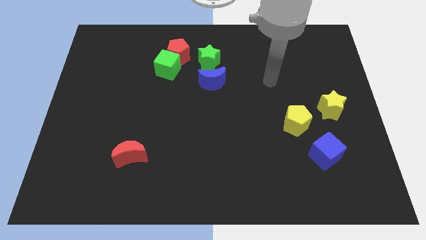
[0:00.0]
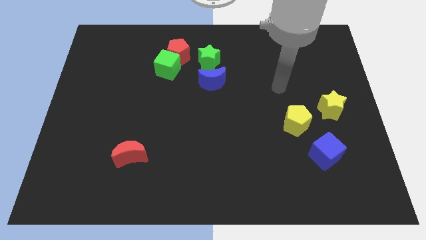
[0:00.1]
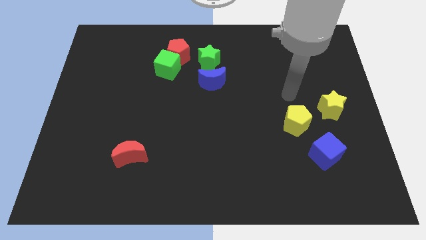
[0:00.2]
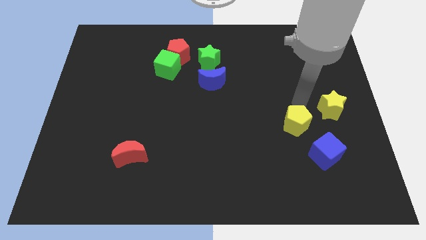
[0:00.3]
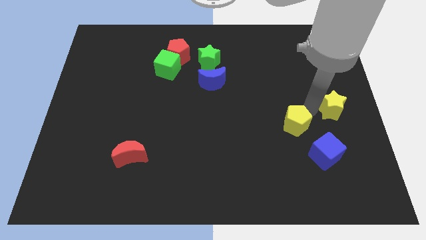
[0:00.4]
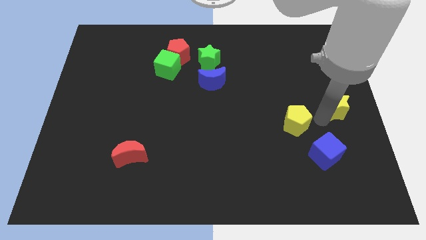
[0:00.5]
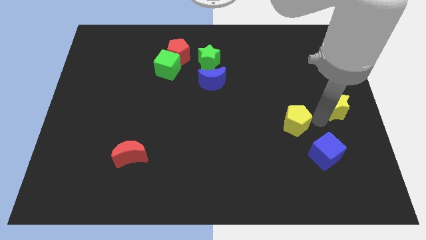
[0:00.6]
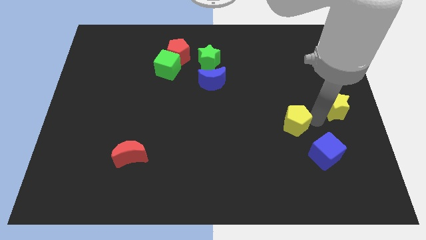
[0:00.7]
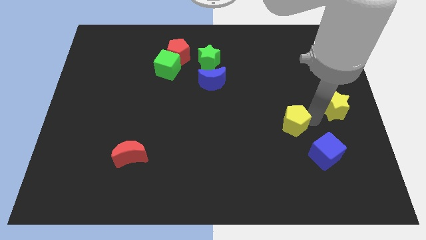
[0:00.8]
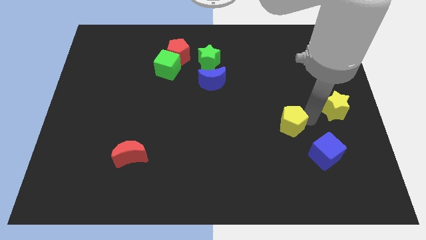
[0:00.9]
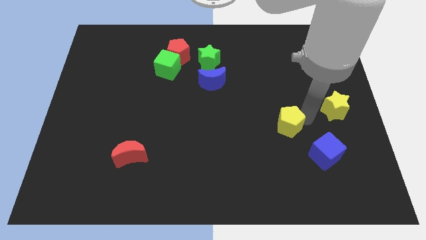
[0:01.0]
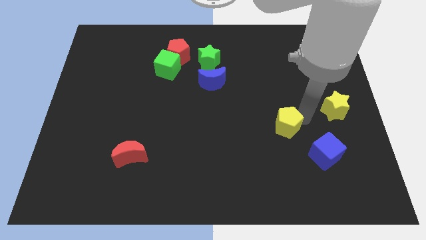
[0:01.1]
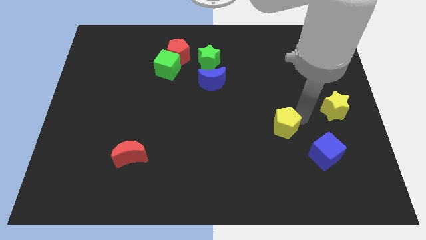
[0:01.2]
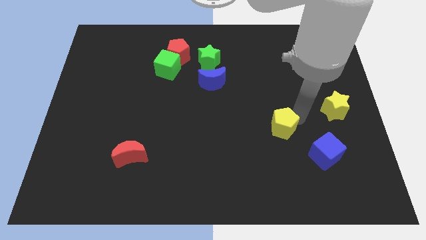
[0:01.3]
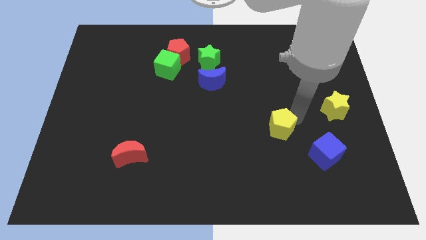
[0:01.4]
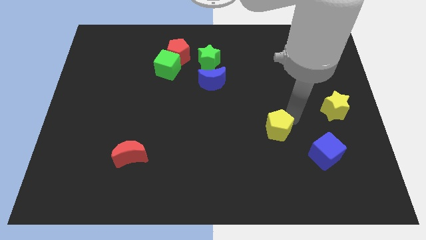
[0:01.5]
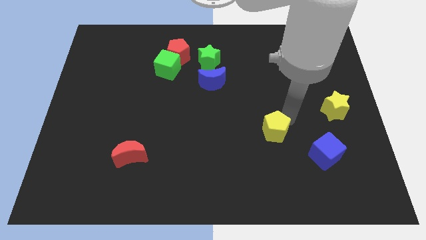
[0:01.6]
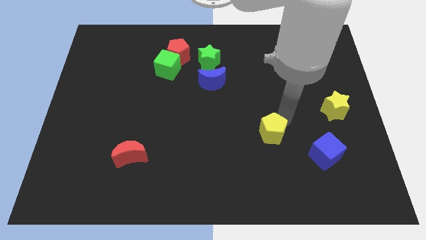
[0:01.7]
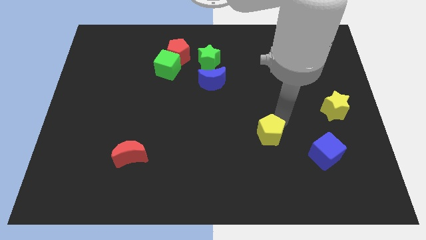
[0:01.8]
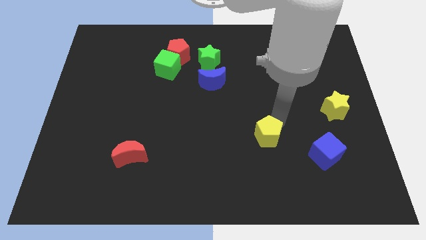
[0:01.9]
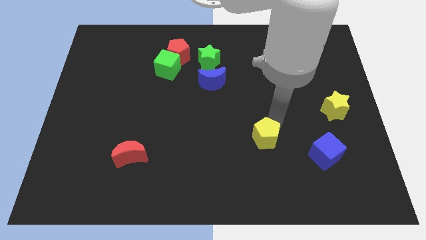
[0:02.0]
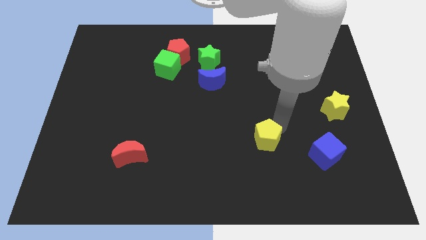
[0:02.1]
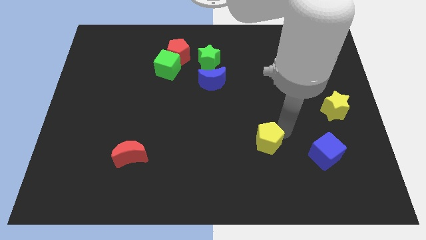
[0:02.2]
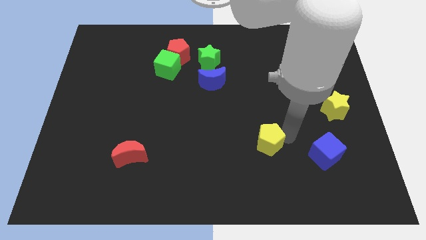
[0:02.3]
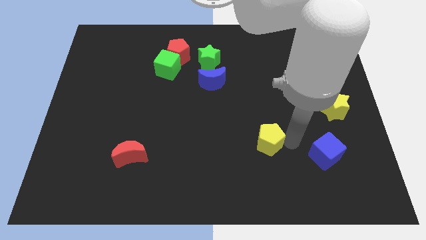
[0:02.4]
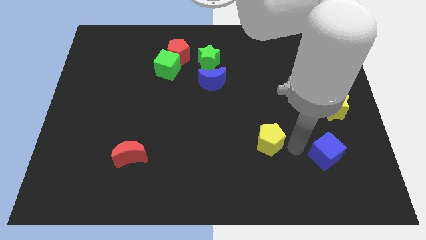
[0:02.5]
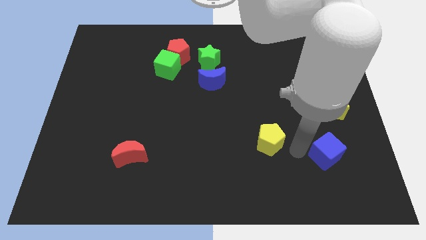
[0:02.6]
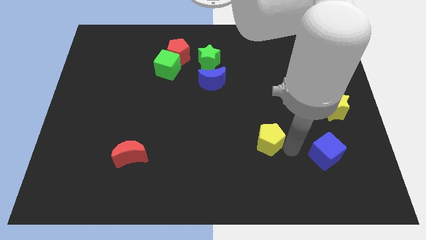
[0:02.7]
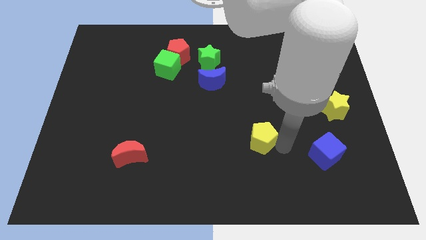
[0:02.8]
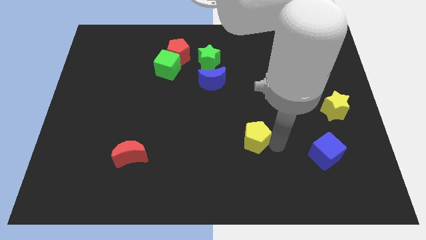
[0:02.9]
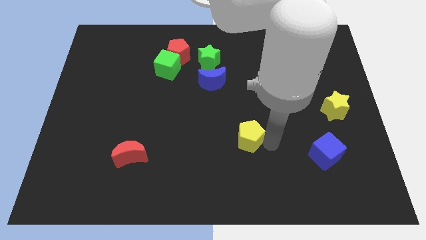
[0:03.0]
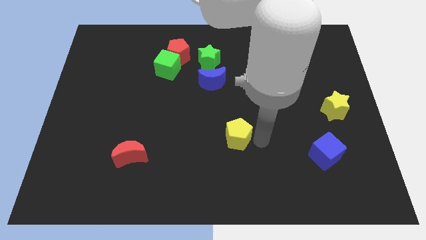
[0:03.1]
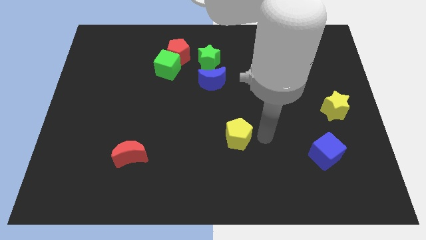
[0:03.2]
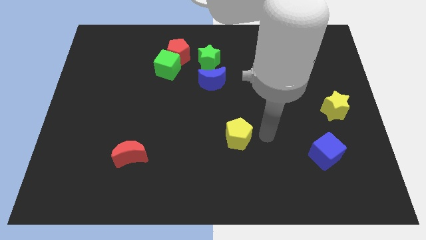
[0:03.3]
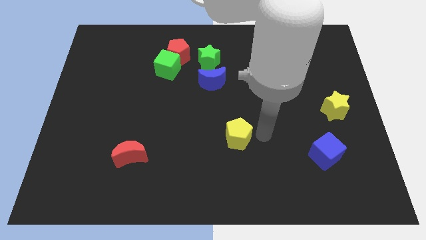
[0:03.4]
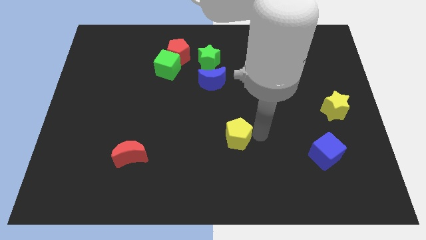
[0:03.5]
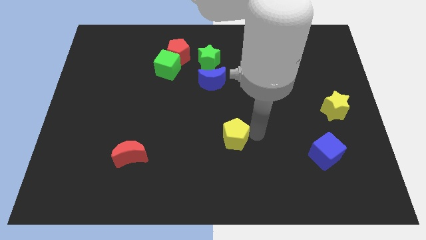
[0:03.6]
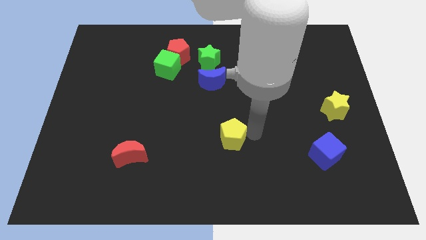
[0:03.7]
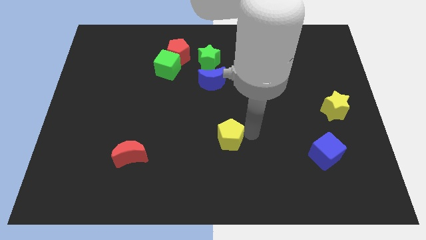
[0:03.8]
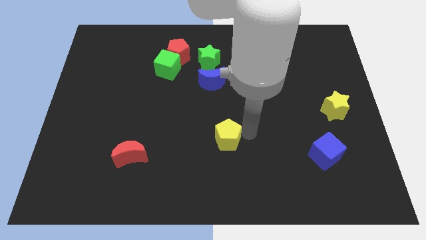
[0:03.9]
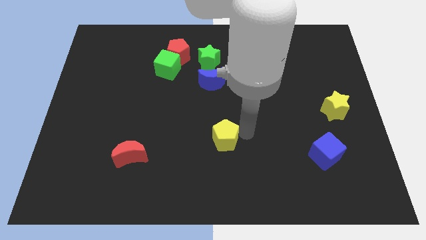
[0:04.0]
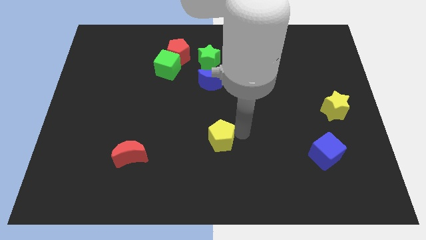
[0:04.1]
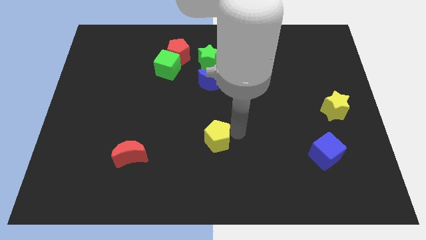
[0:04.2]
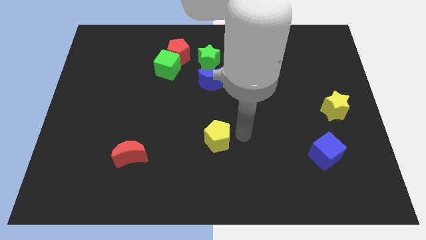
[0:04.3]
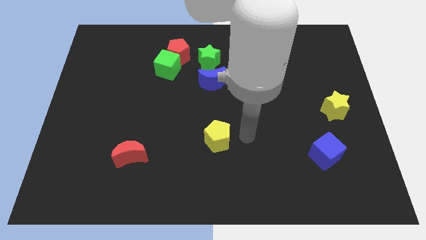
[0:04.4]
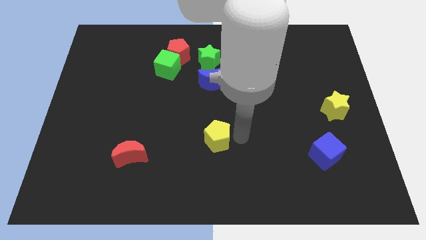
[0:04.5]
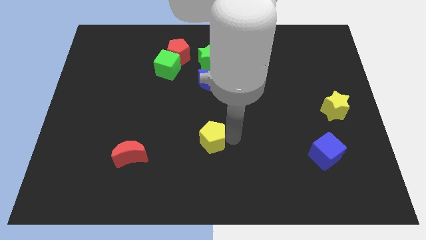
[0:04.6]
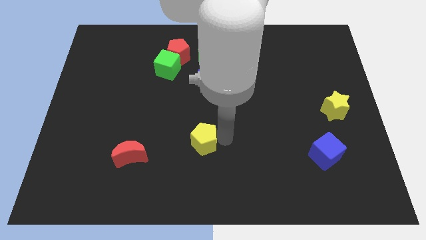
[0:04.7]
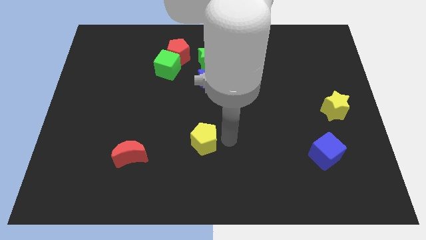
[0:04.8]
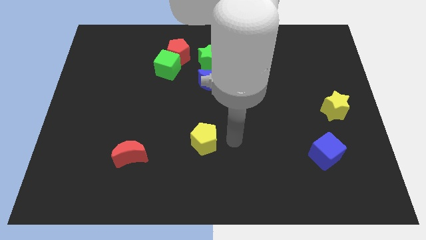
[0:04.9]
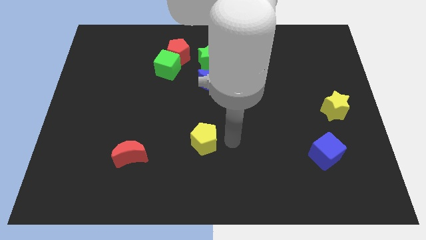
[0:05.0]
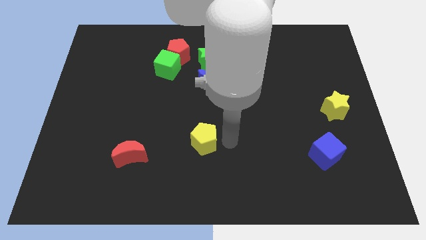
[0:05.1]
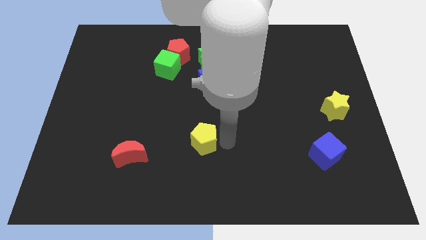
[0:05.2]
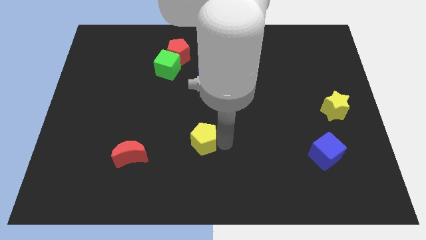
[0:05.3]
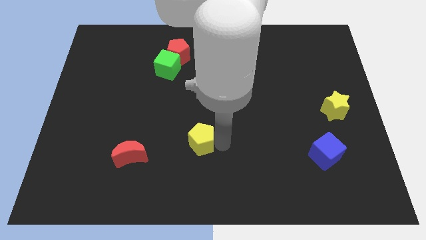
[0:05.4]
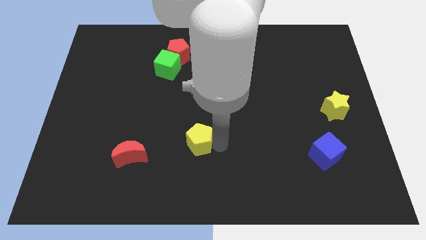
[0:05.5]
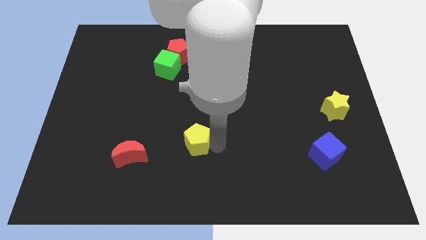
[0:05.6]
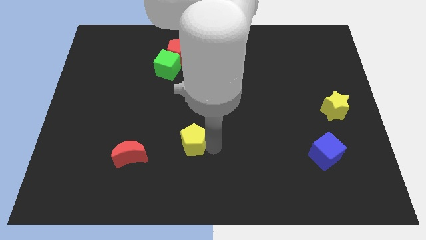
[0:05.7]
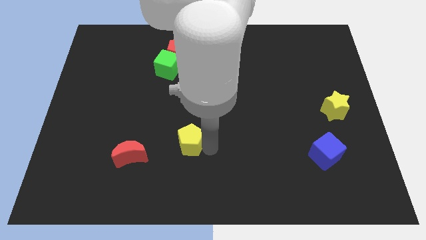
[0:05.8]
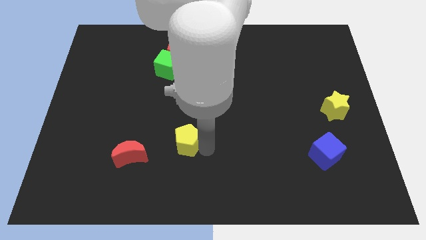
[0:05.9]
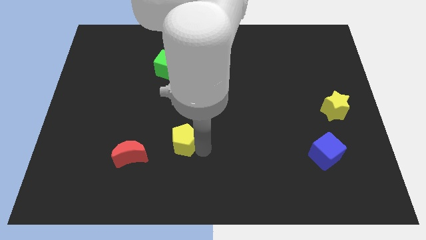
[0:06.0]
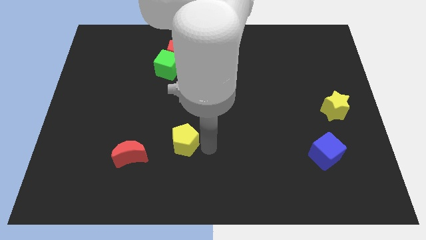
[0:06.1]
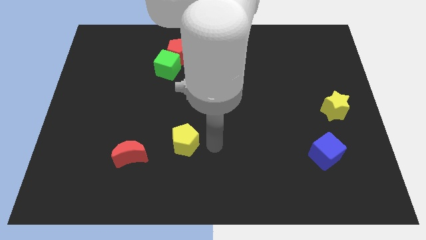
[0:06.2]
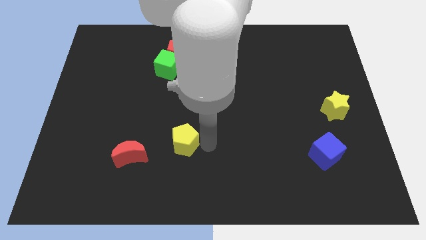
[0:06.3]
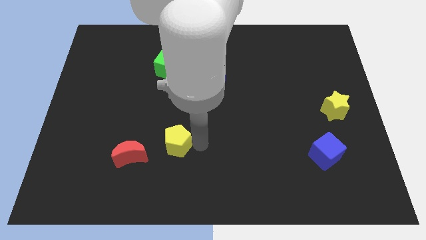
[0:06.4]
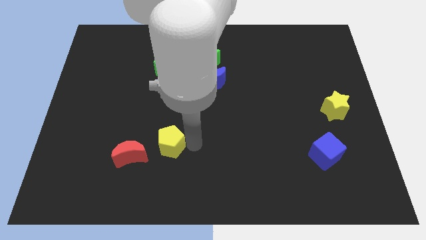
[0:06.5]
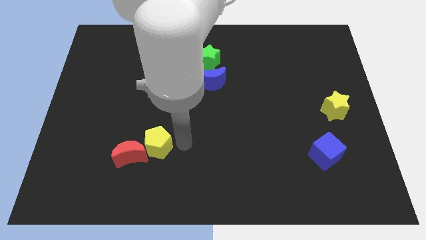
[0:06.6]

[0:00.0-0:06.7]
put the yellow pentagon to the red moon

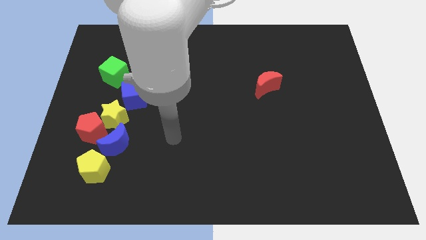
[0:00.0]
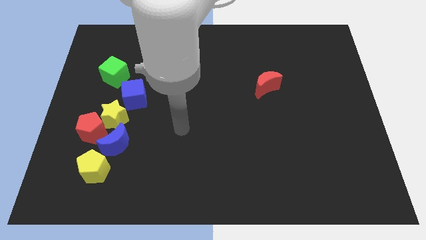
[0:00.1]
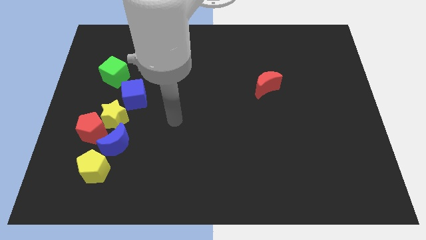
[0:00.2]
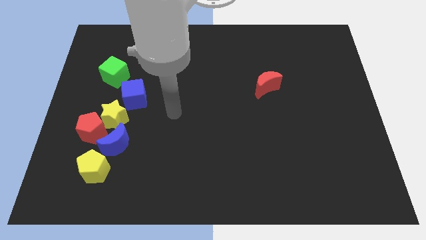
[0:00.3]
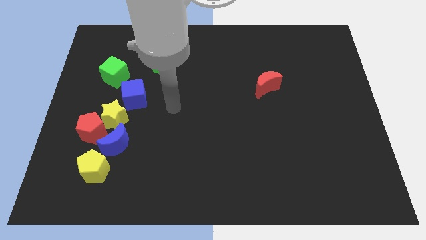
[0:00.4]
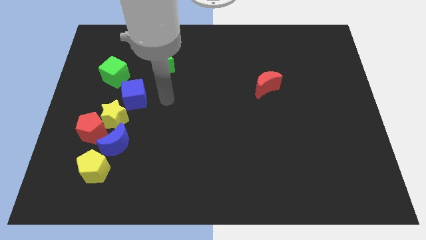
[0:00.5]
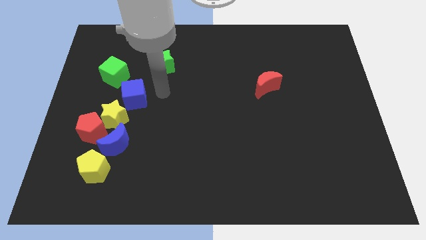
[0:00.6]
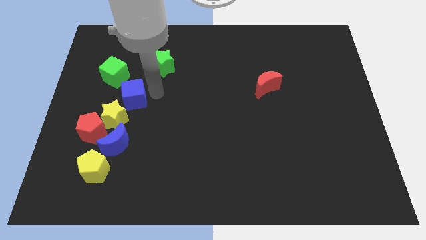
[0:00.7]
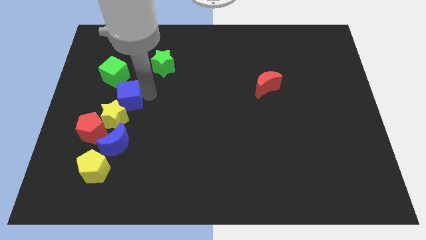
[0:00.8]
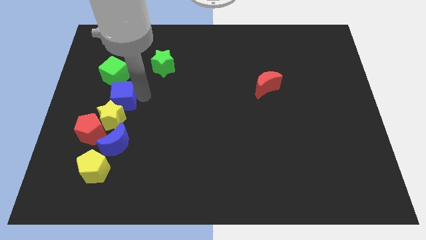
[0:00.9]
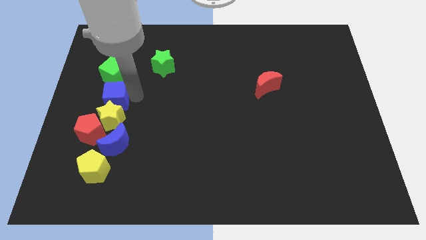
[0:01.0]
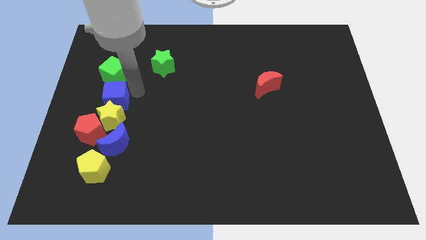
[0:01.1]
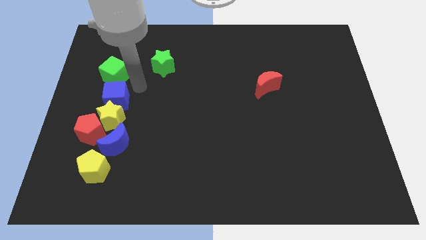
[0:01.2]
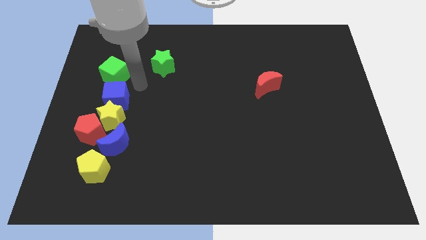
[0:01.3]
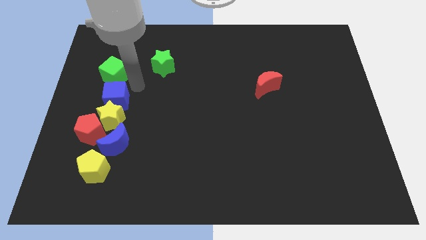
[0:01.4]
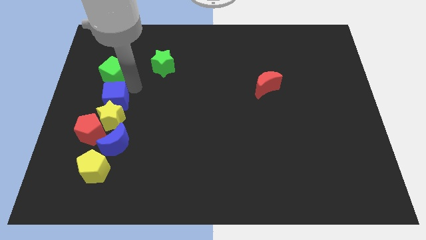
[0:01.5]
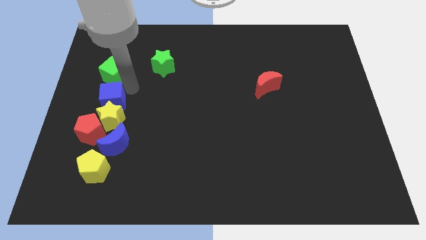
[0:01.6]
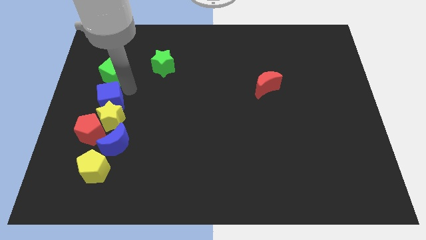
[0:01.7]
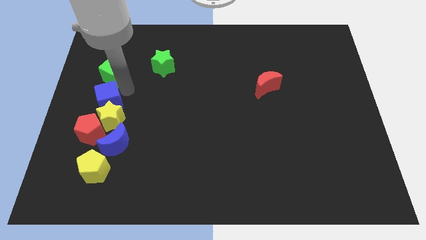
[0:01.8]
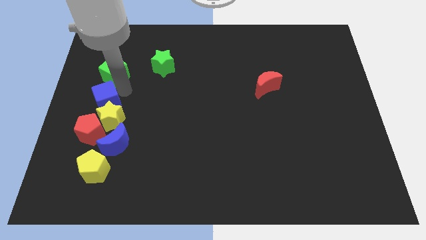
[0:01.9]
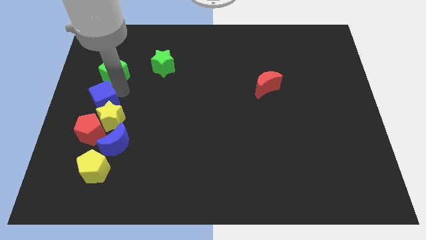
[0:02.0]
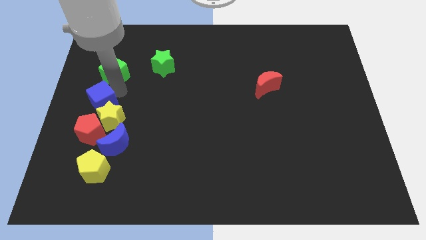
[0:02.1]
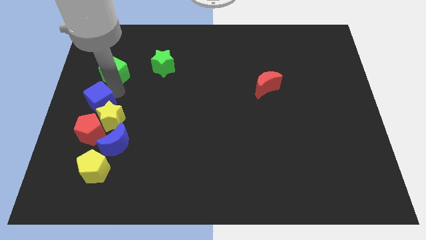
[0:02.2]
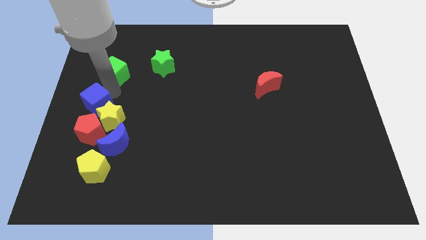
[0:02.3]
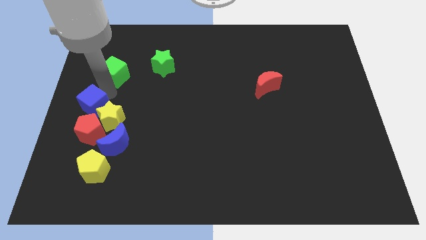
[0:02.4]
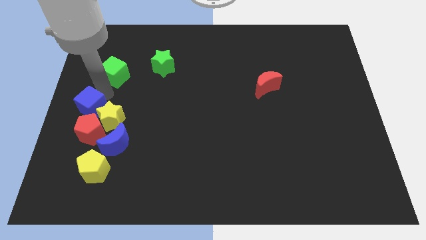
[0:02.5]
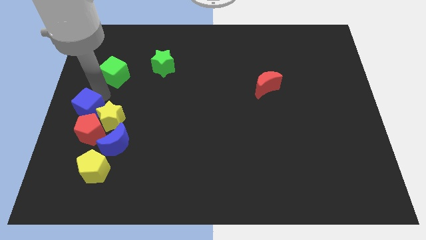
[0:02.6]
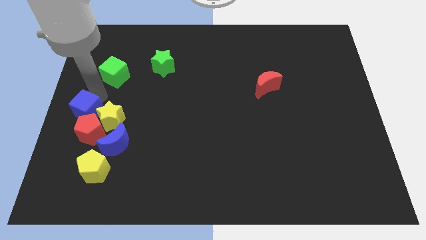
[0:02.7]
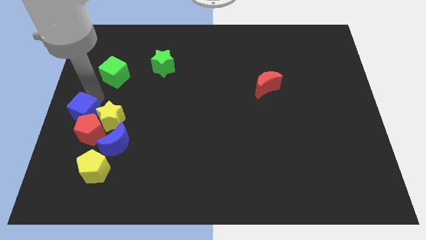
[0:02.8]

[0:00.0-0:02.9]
push the blue cube close to the red pentagon
